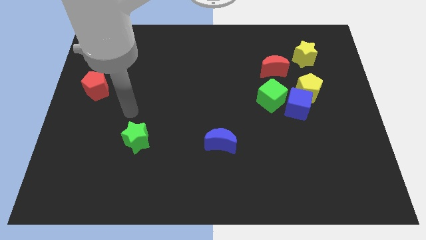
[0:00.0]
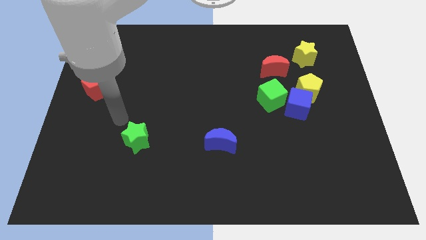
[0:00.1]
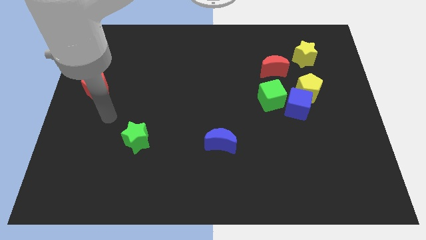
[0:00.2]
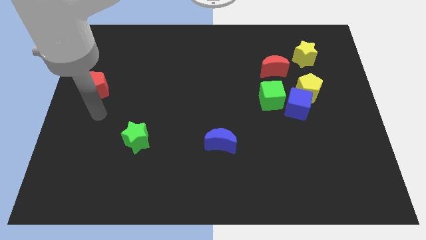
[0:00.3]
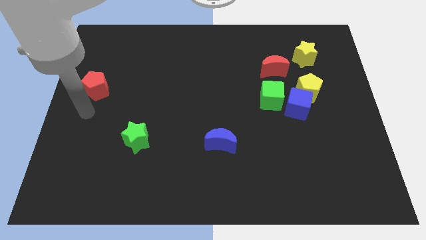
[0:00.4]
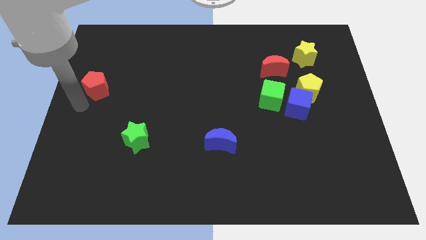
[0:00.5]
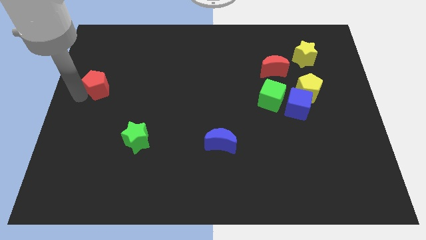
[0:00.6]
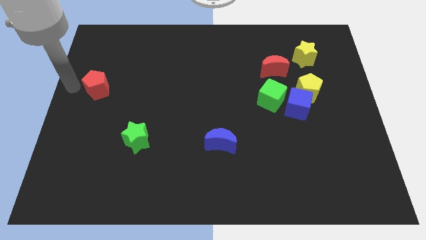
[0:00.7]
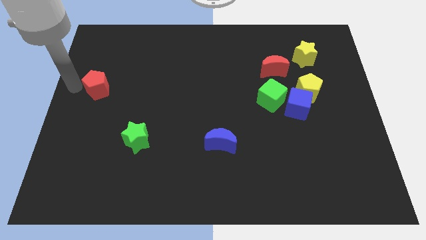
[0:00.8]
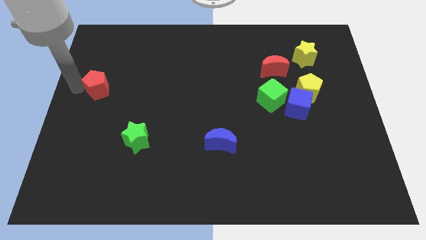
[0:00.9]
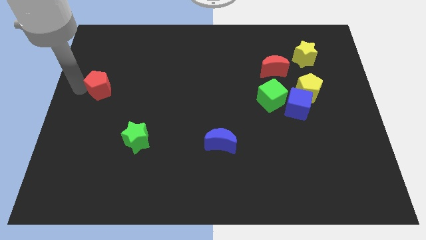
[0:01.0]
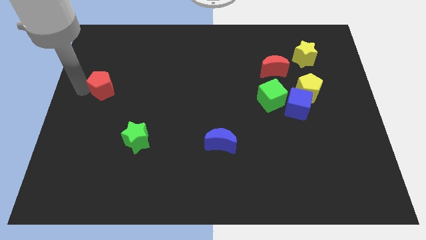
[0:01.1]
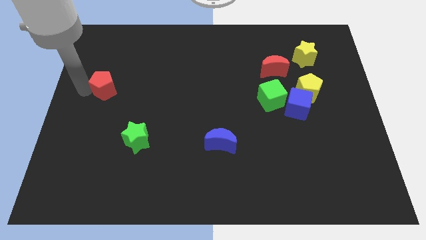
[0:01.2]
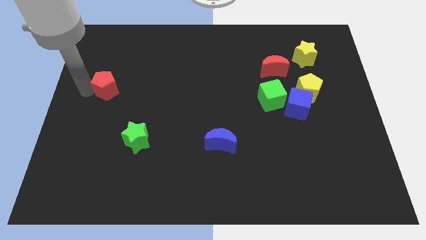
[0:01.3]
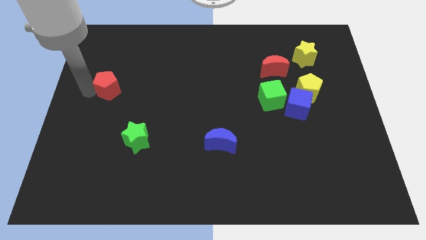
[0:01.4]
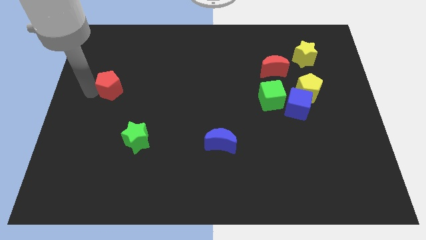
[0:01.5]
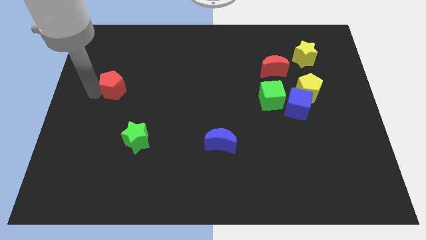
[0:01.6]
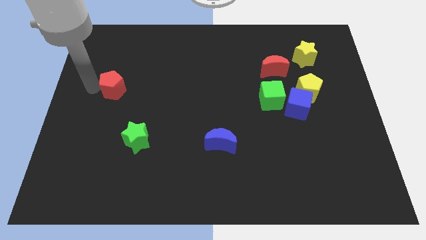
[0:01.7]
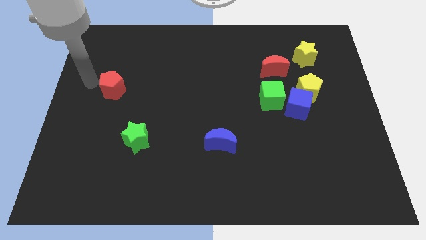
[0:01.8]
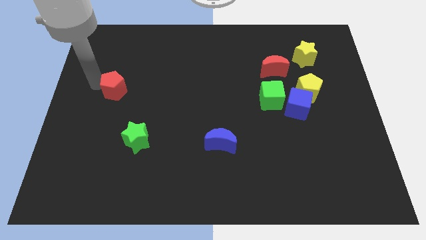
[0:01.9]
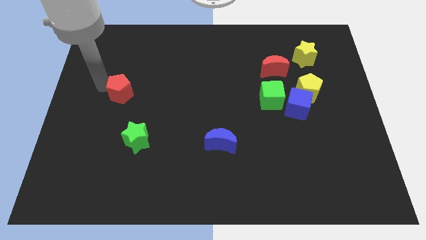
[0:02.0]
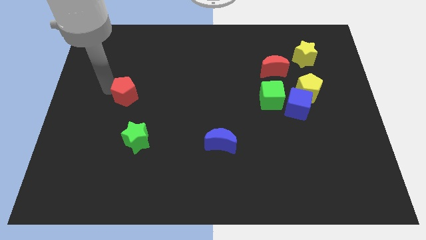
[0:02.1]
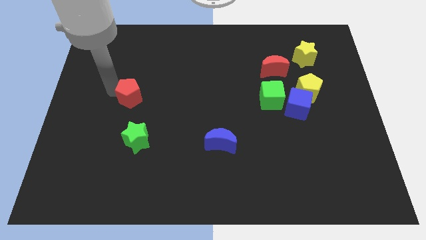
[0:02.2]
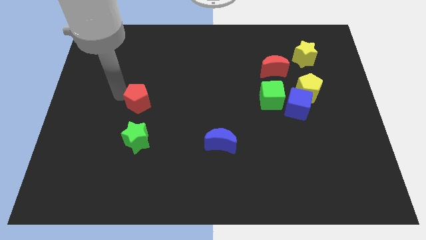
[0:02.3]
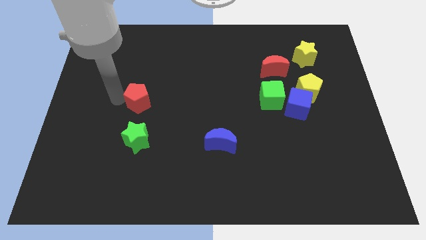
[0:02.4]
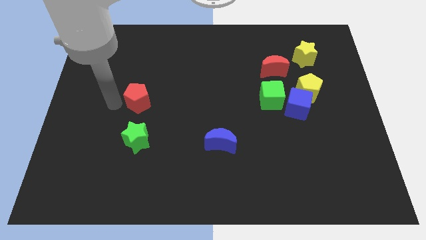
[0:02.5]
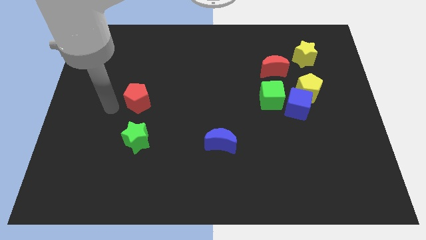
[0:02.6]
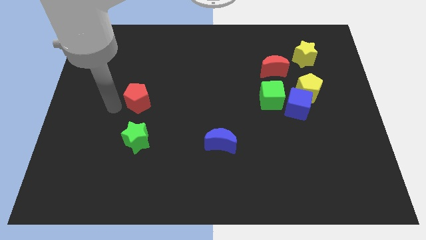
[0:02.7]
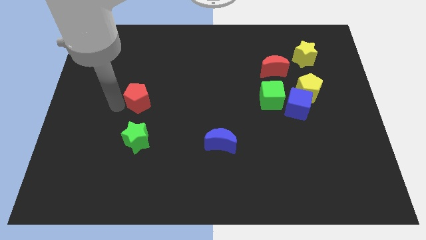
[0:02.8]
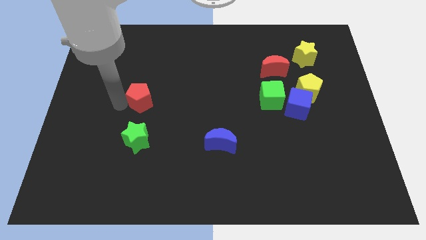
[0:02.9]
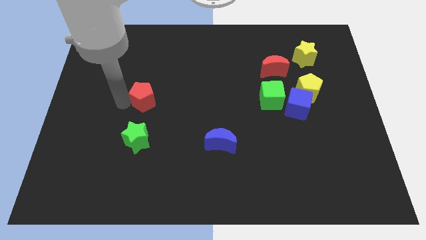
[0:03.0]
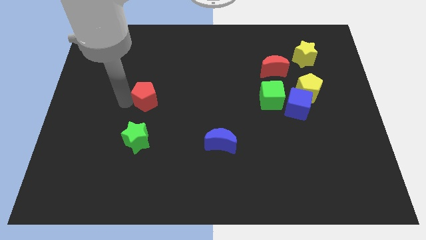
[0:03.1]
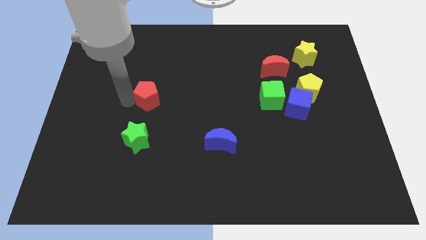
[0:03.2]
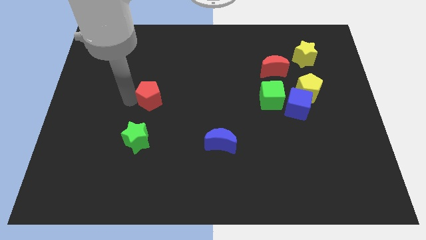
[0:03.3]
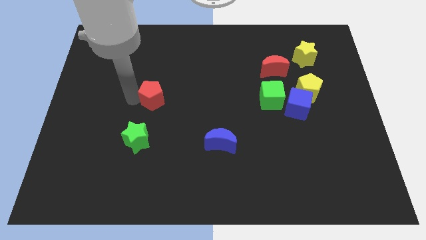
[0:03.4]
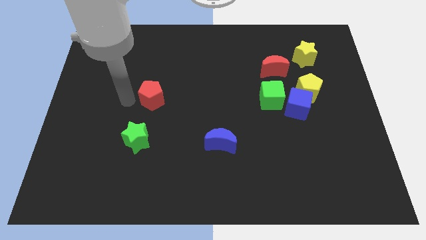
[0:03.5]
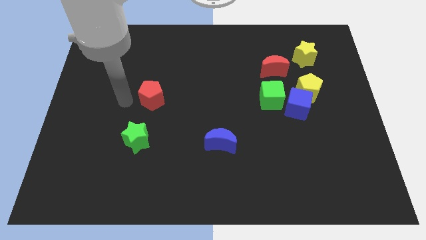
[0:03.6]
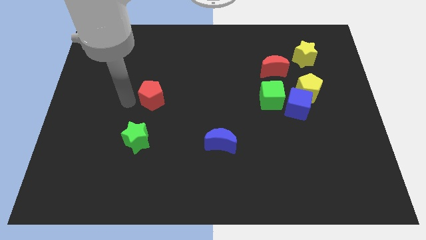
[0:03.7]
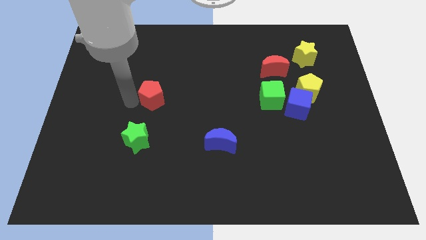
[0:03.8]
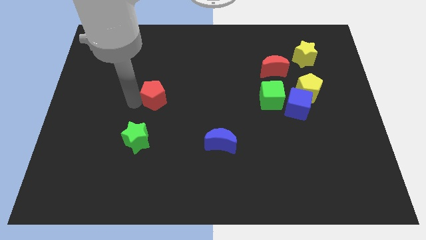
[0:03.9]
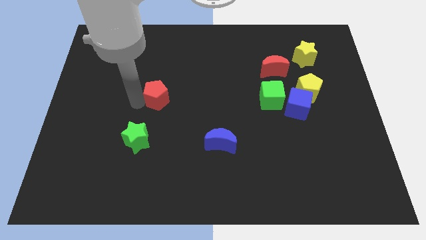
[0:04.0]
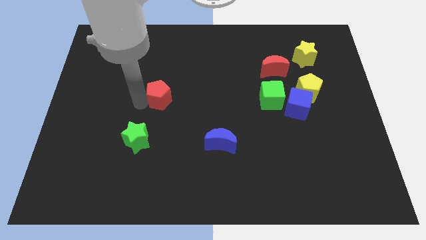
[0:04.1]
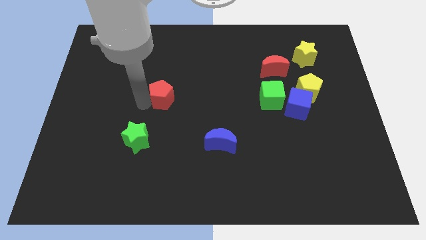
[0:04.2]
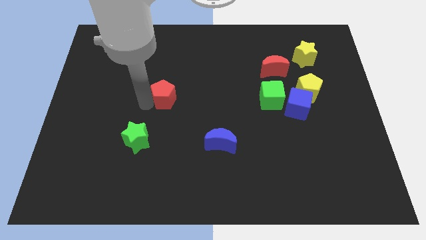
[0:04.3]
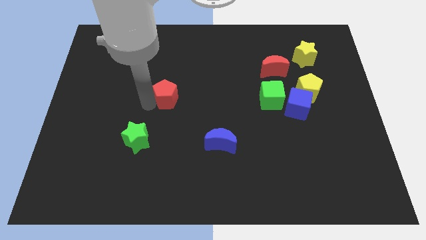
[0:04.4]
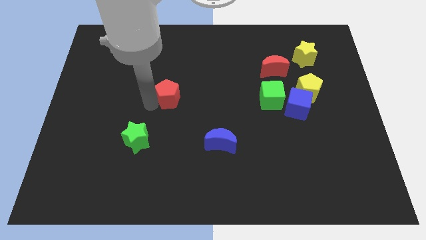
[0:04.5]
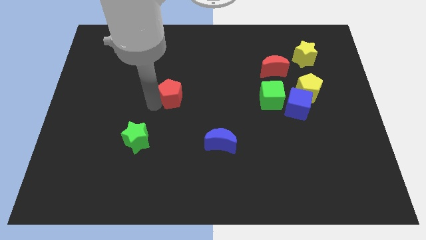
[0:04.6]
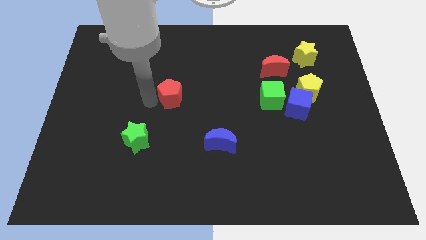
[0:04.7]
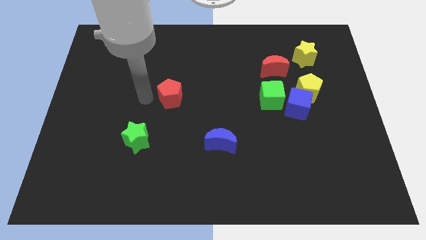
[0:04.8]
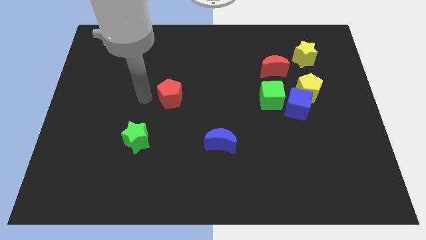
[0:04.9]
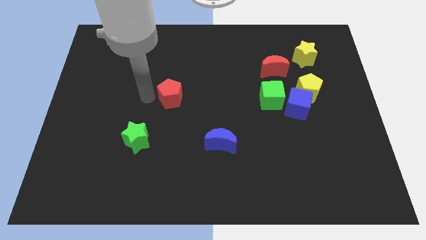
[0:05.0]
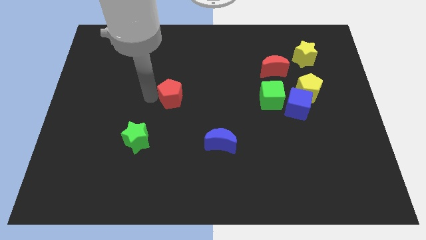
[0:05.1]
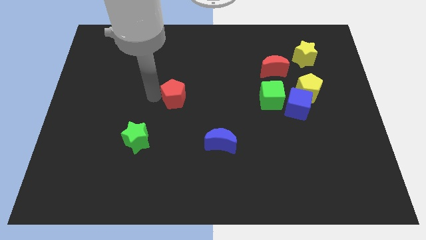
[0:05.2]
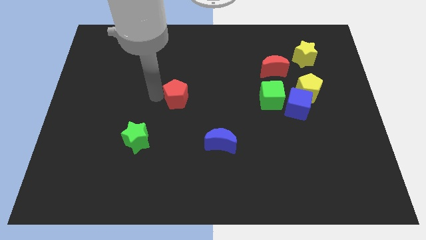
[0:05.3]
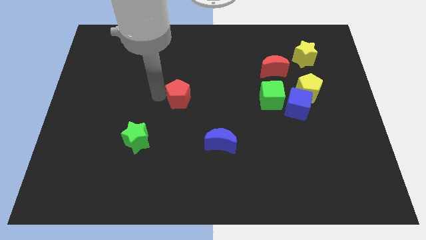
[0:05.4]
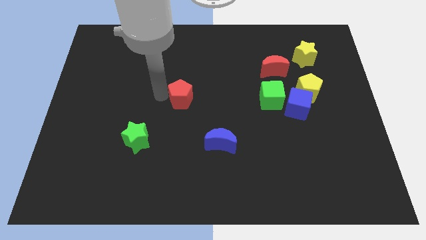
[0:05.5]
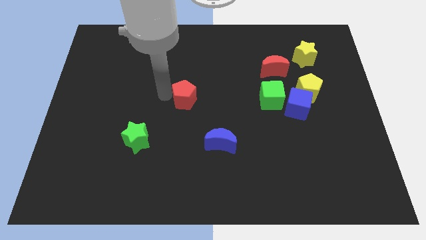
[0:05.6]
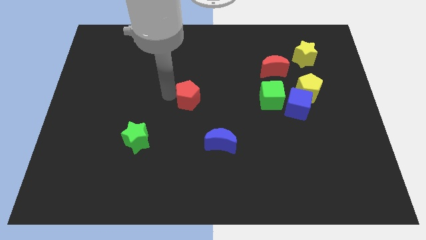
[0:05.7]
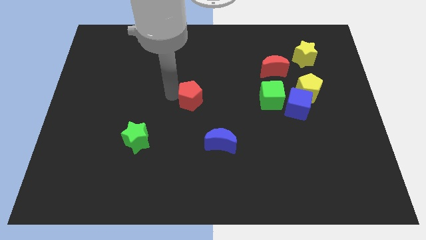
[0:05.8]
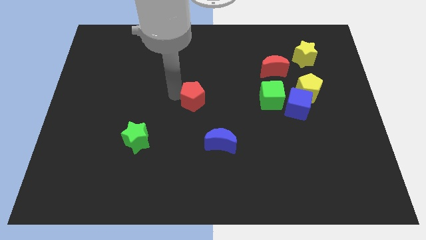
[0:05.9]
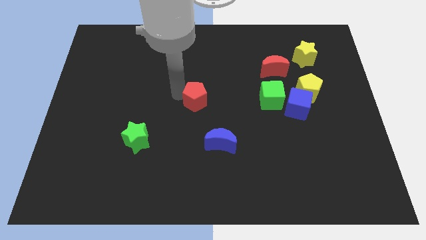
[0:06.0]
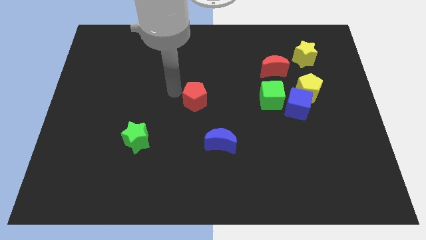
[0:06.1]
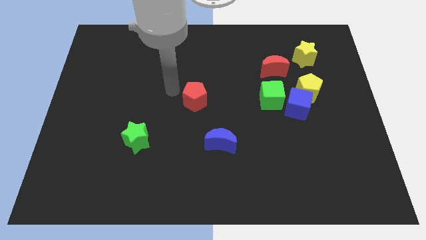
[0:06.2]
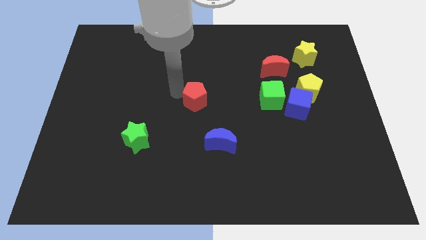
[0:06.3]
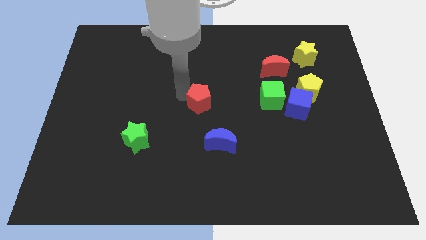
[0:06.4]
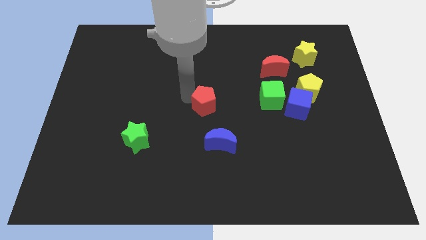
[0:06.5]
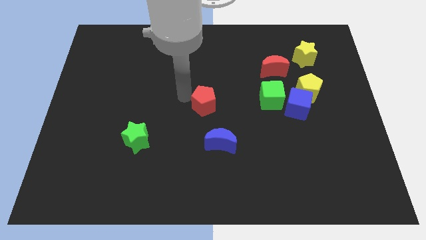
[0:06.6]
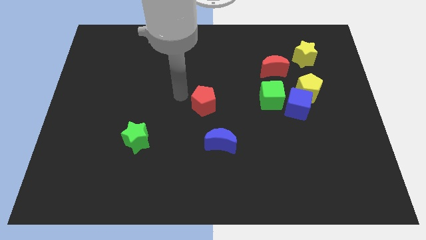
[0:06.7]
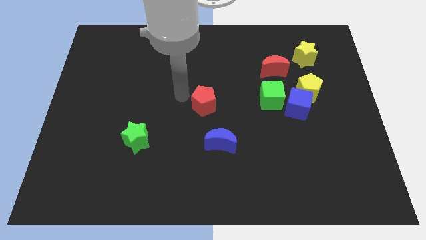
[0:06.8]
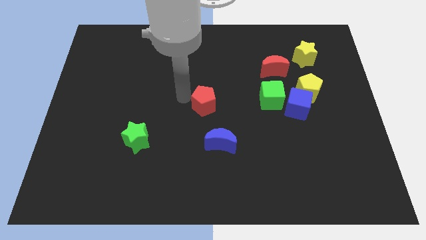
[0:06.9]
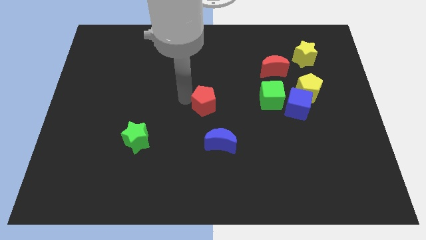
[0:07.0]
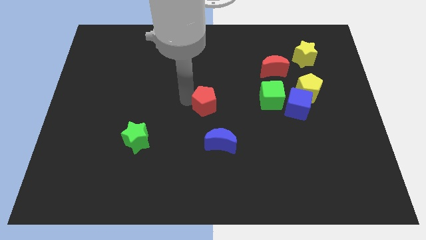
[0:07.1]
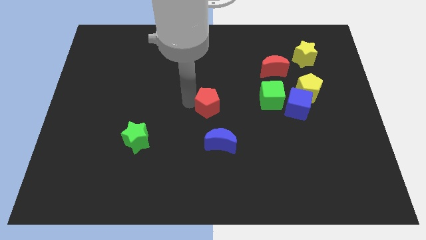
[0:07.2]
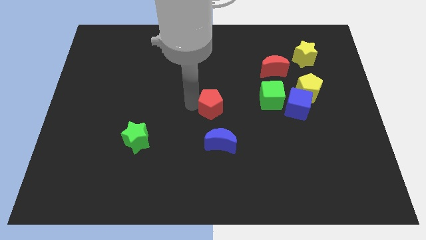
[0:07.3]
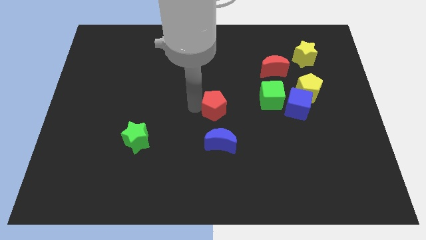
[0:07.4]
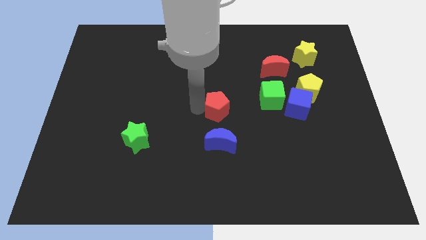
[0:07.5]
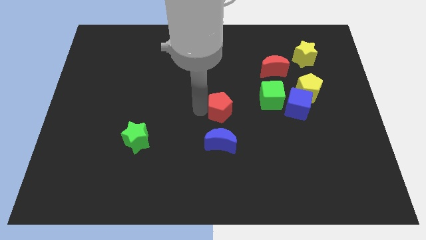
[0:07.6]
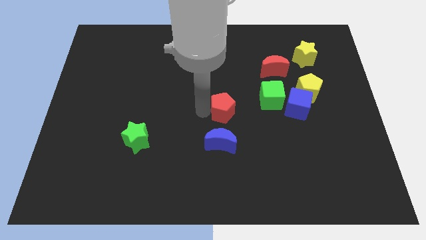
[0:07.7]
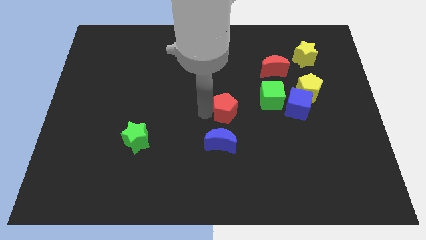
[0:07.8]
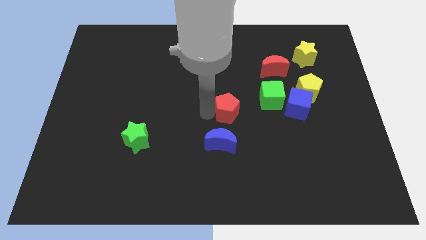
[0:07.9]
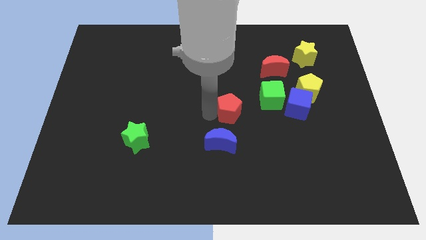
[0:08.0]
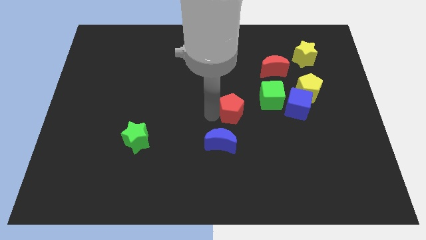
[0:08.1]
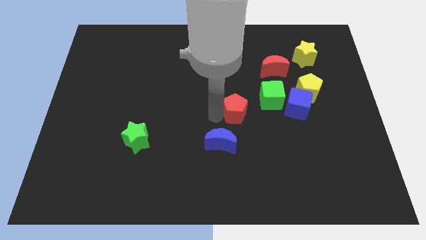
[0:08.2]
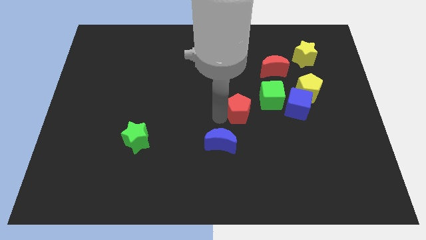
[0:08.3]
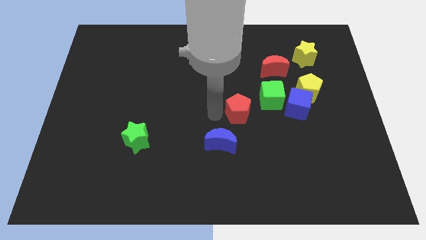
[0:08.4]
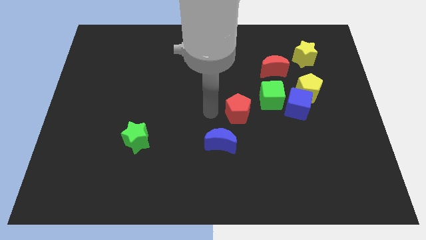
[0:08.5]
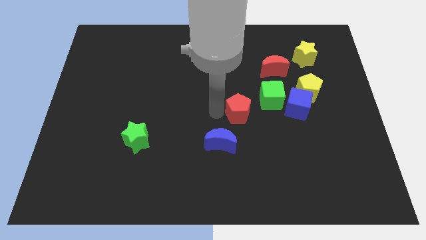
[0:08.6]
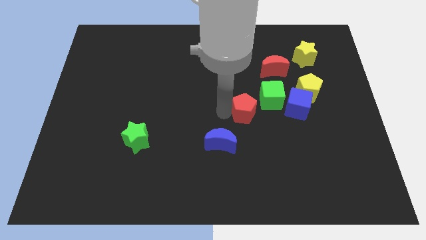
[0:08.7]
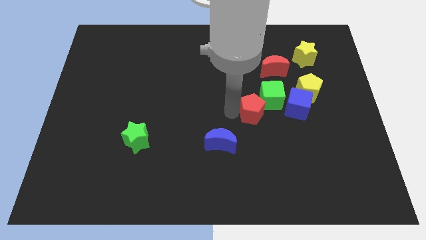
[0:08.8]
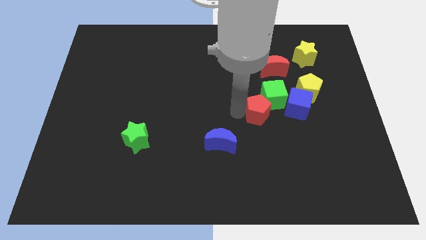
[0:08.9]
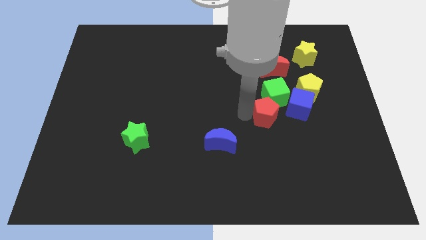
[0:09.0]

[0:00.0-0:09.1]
put the red pentagon to the bottom of the red moon
